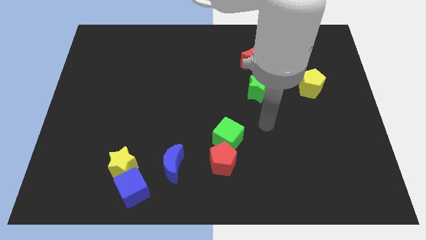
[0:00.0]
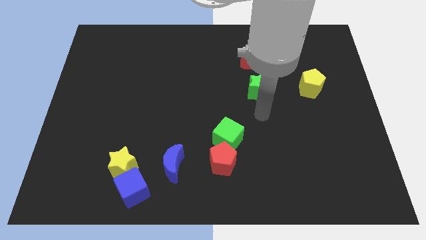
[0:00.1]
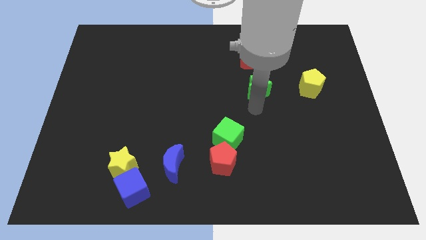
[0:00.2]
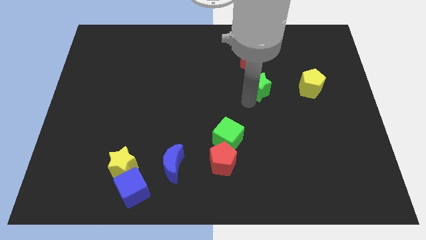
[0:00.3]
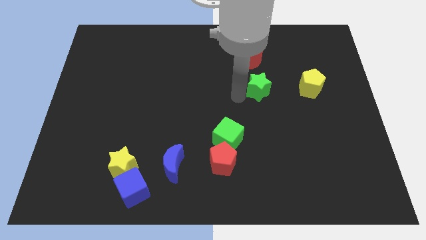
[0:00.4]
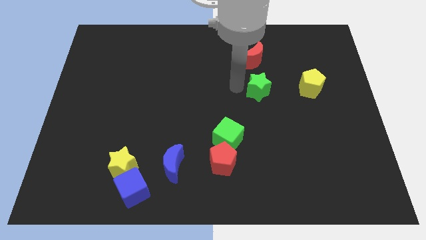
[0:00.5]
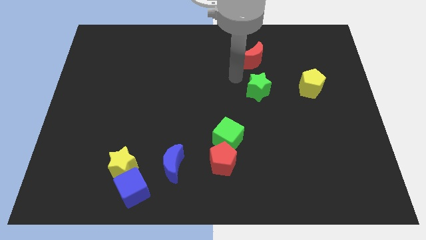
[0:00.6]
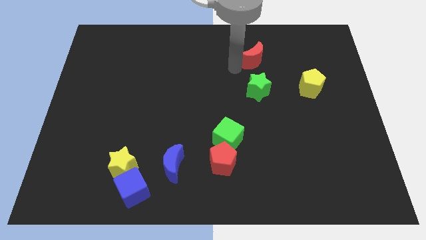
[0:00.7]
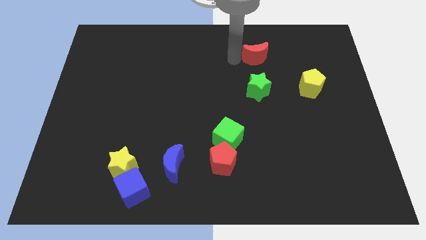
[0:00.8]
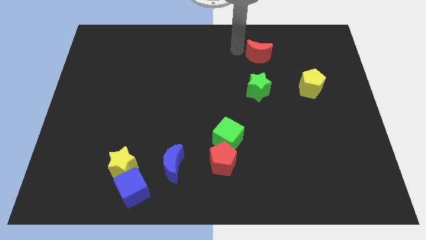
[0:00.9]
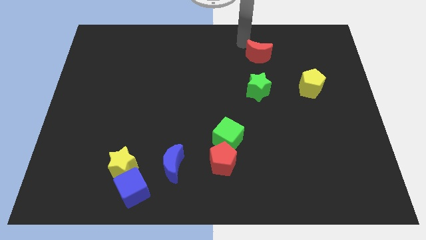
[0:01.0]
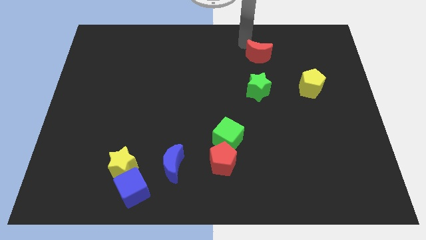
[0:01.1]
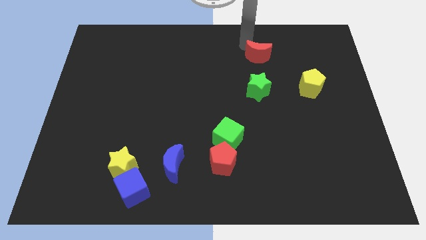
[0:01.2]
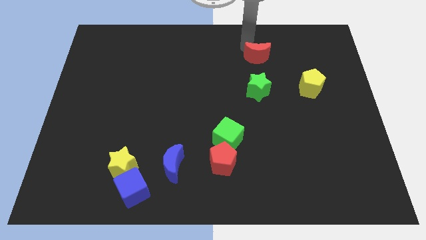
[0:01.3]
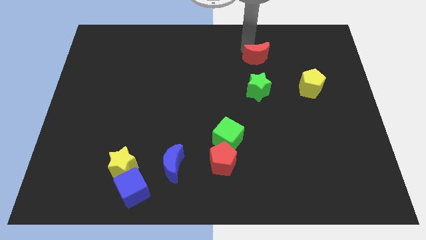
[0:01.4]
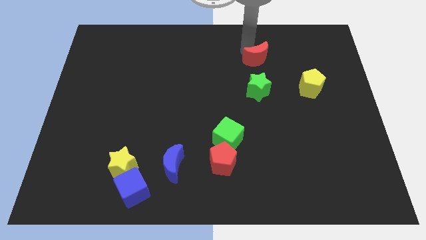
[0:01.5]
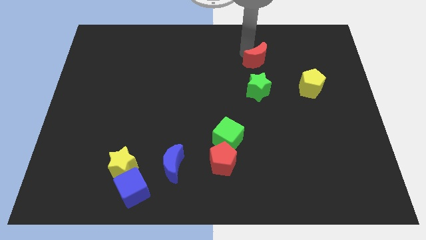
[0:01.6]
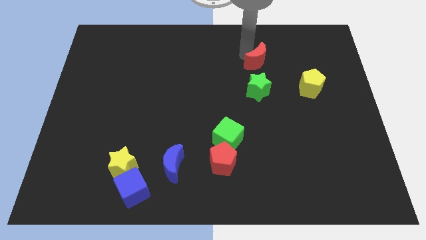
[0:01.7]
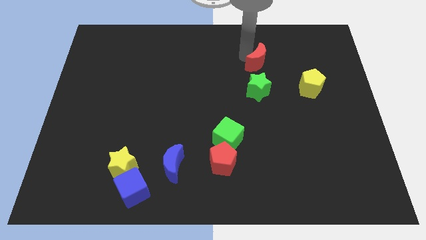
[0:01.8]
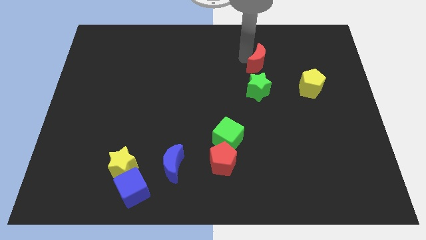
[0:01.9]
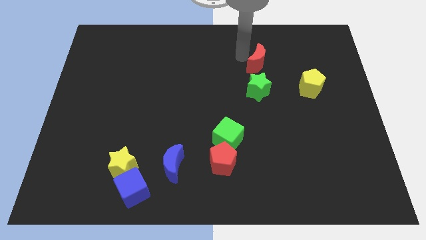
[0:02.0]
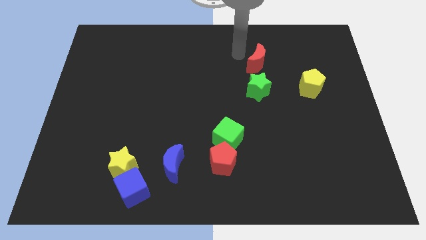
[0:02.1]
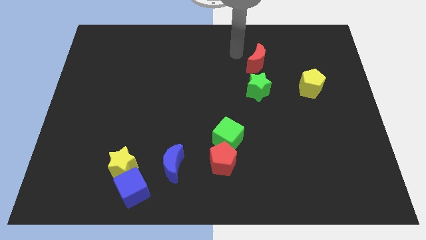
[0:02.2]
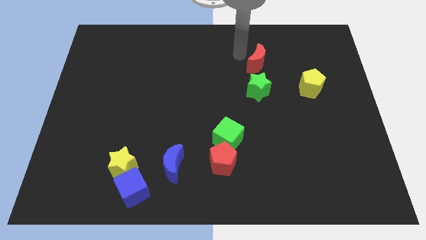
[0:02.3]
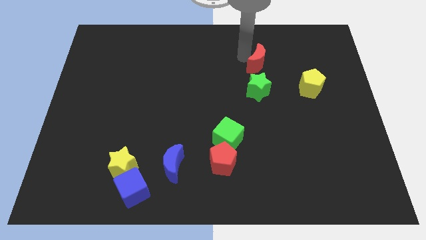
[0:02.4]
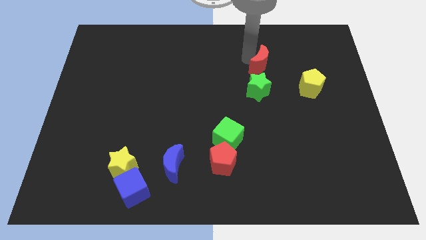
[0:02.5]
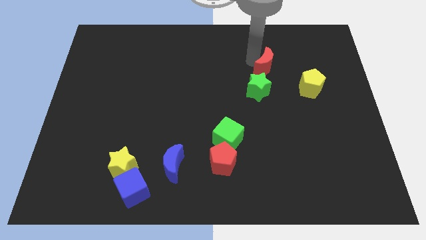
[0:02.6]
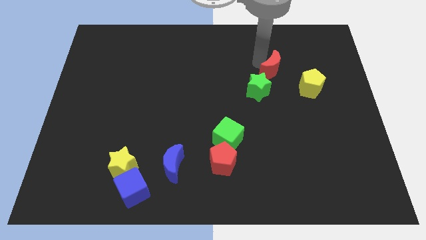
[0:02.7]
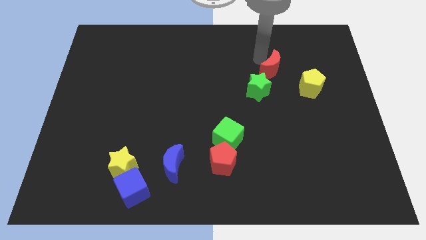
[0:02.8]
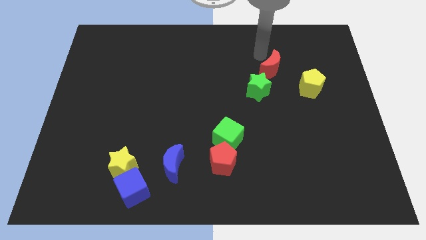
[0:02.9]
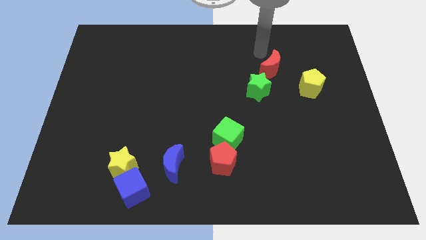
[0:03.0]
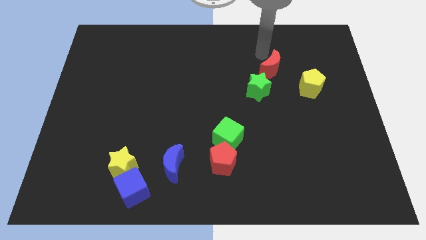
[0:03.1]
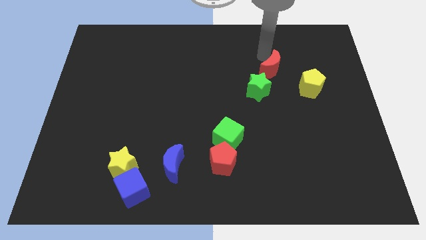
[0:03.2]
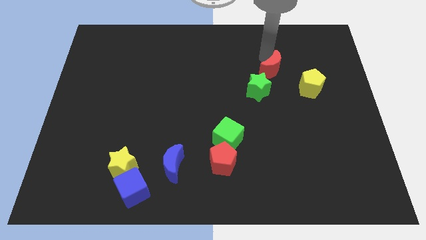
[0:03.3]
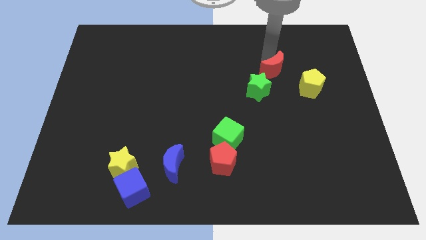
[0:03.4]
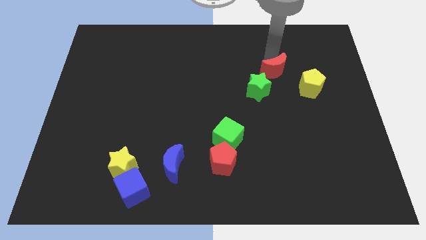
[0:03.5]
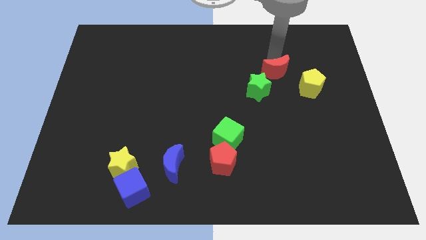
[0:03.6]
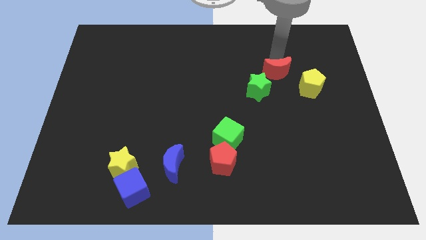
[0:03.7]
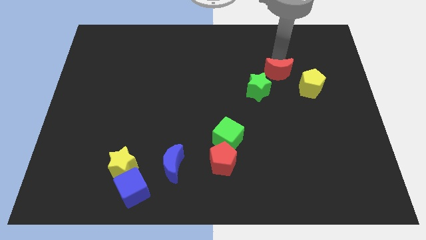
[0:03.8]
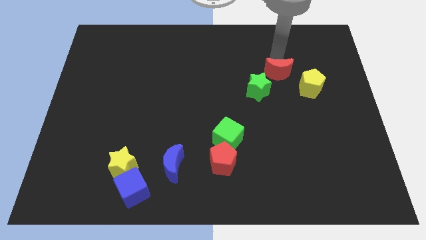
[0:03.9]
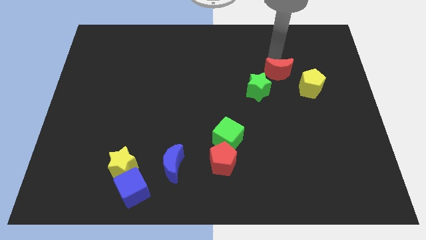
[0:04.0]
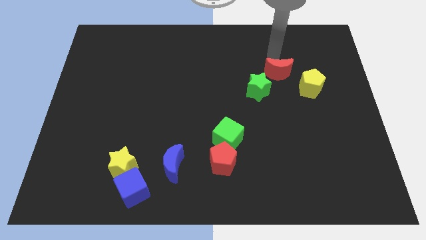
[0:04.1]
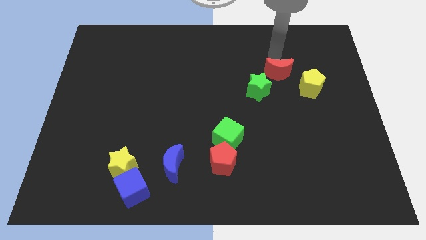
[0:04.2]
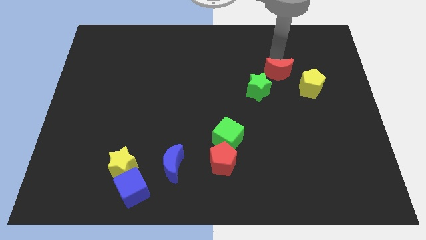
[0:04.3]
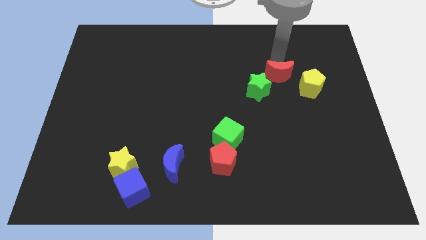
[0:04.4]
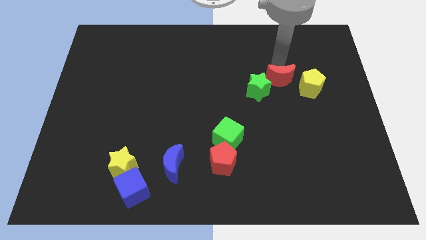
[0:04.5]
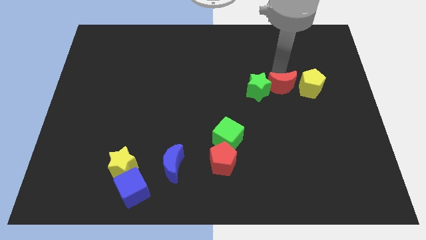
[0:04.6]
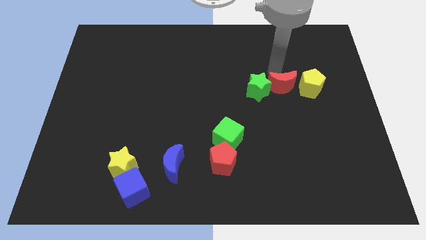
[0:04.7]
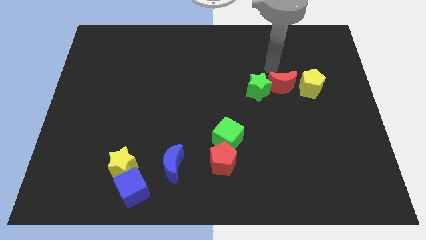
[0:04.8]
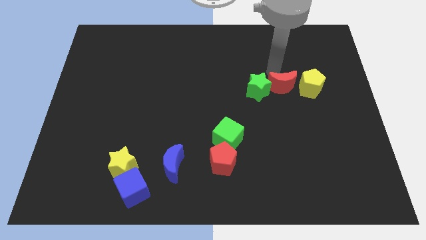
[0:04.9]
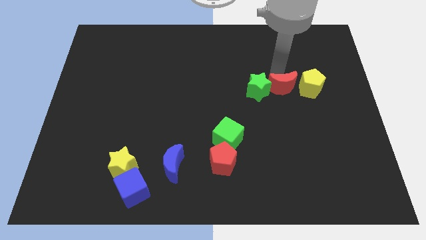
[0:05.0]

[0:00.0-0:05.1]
put the red moon to the bottom left side of the yellow pentagon

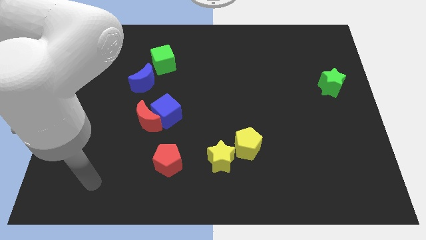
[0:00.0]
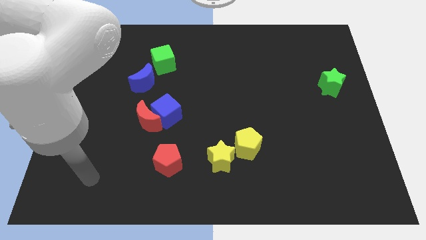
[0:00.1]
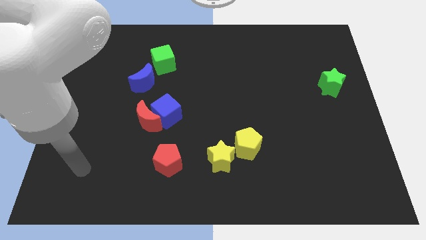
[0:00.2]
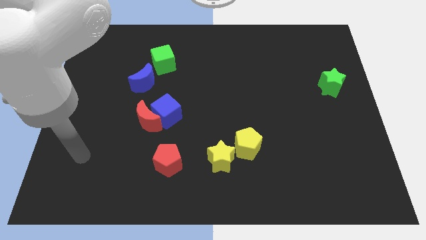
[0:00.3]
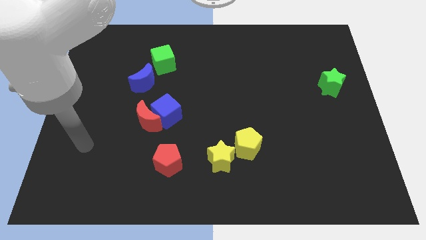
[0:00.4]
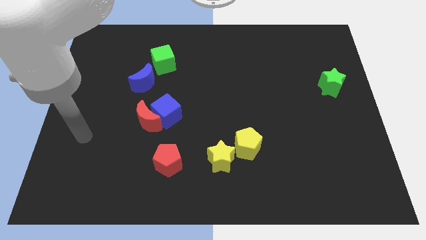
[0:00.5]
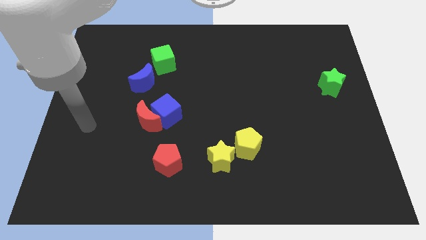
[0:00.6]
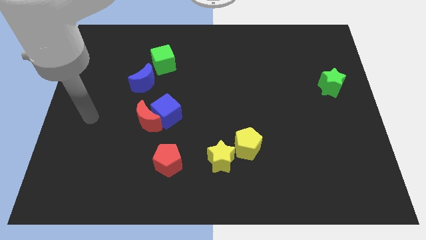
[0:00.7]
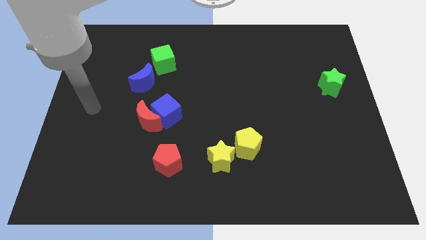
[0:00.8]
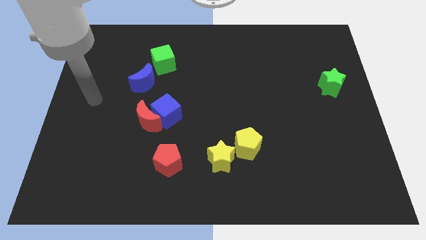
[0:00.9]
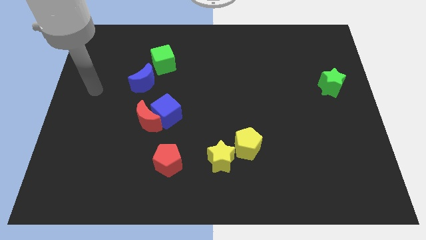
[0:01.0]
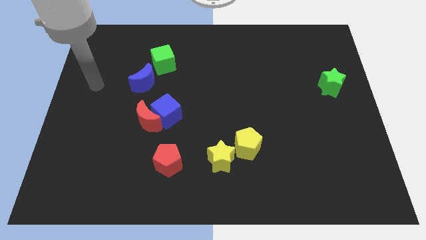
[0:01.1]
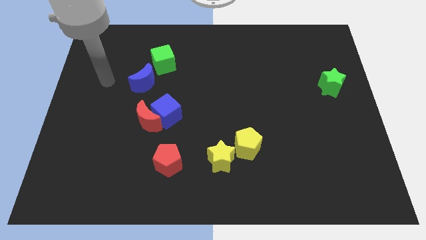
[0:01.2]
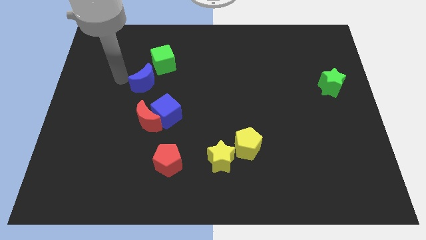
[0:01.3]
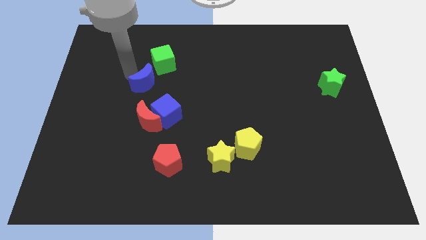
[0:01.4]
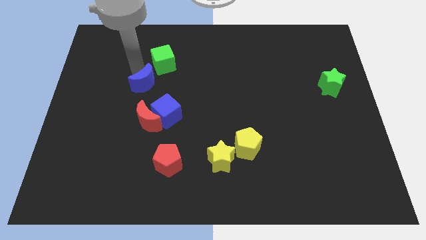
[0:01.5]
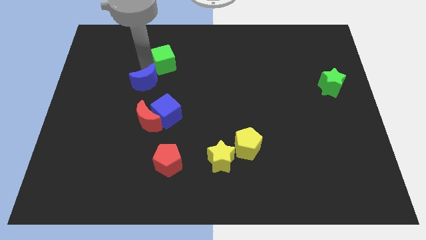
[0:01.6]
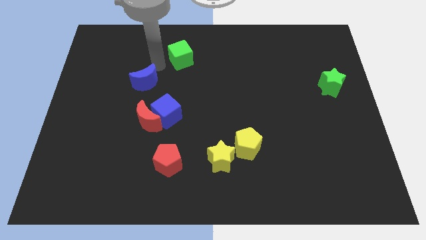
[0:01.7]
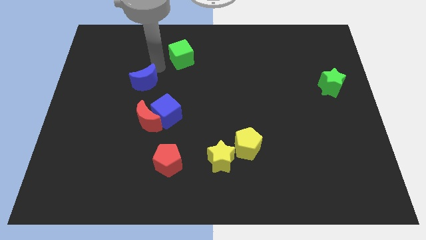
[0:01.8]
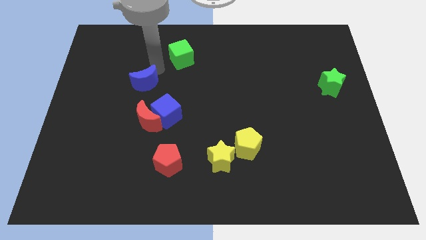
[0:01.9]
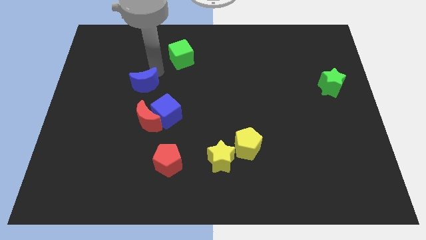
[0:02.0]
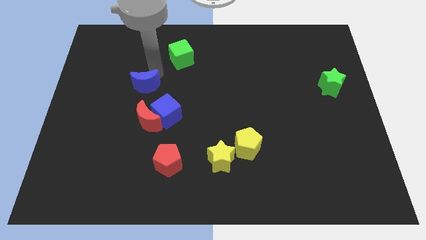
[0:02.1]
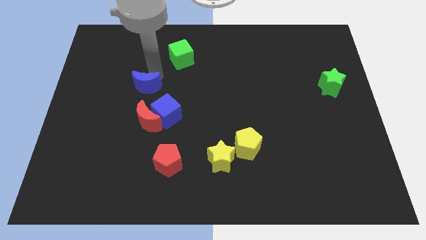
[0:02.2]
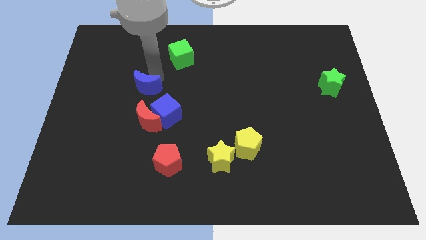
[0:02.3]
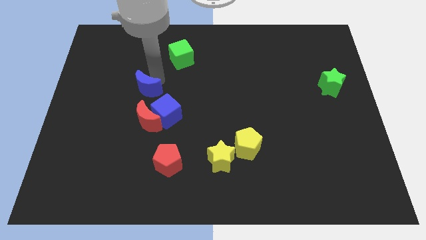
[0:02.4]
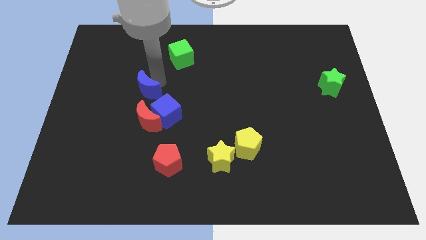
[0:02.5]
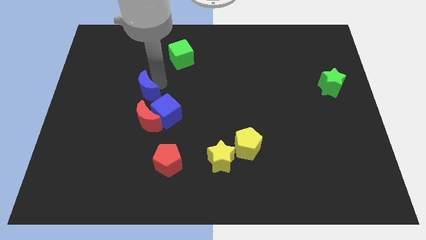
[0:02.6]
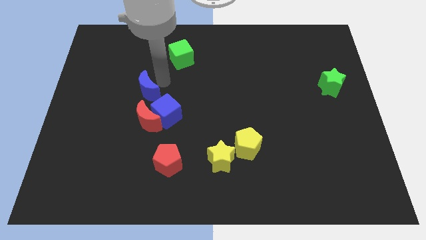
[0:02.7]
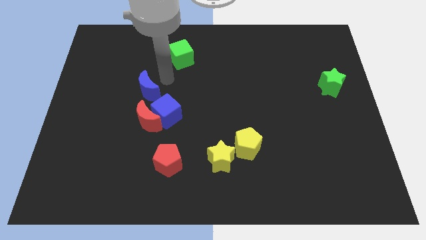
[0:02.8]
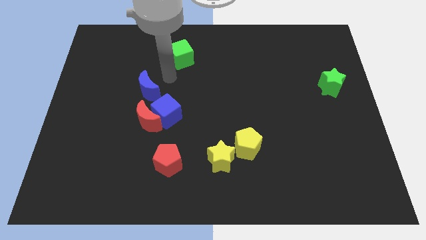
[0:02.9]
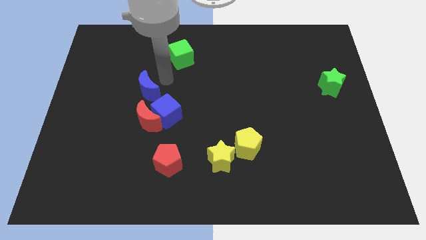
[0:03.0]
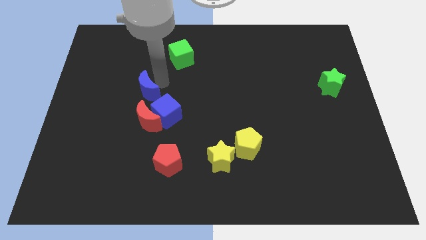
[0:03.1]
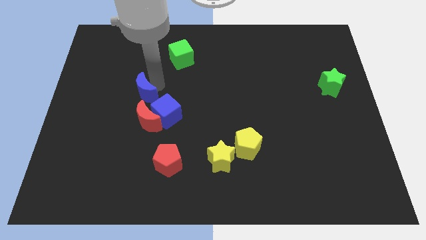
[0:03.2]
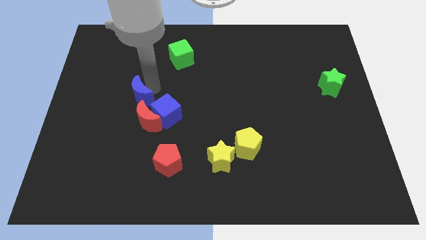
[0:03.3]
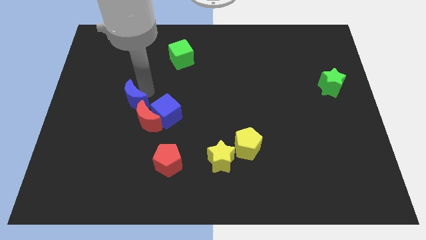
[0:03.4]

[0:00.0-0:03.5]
push the blue moon left of the blue cube
